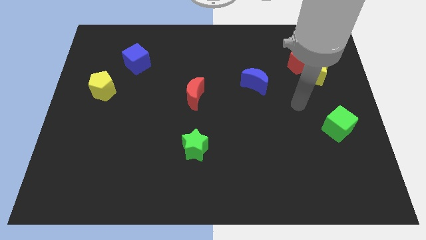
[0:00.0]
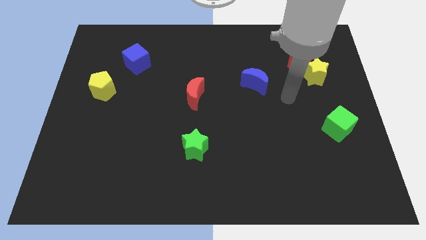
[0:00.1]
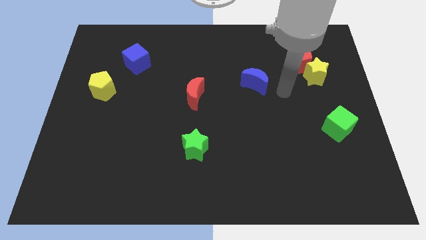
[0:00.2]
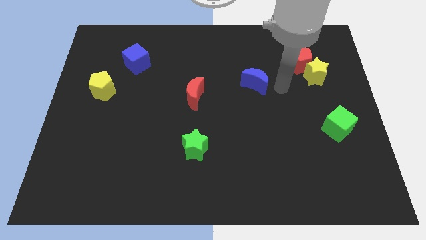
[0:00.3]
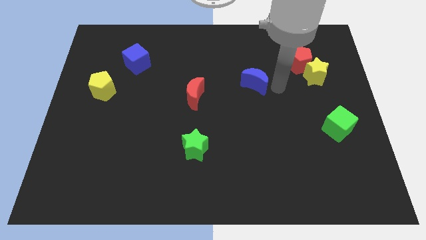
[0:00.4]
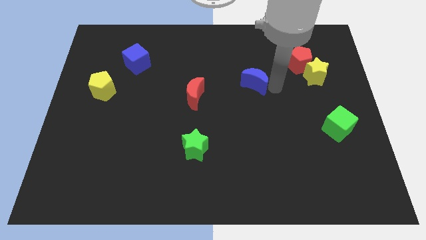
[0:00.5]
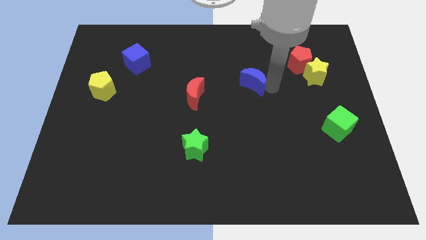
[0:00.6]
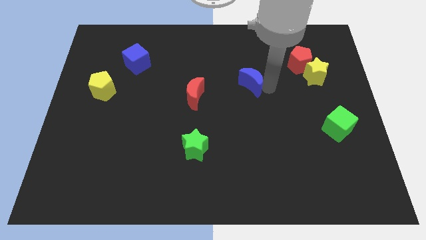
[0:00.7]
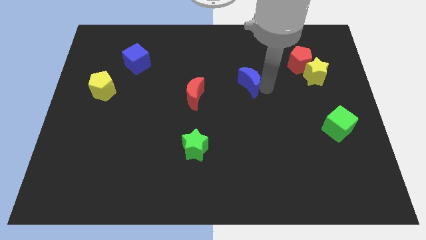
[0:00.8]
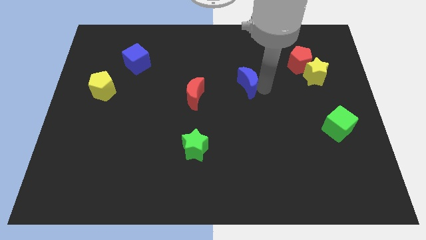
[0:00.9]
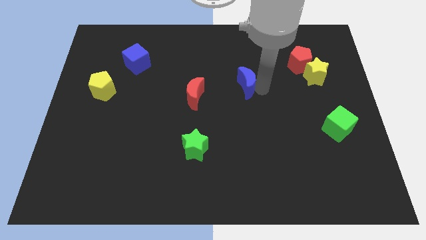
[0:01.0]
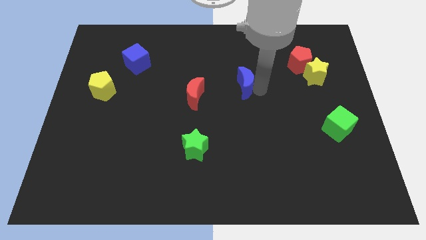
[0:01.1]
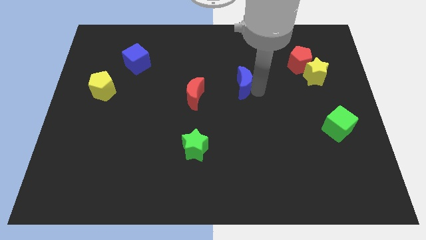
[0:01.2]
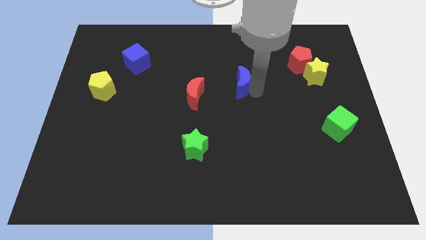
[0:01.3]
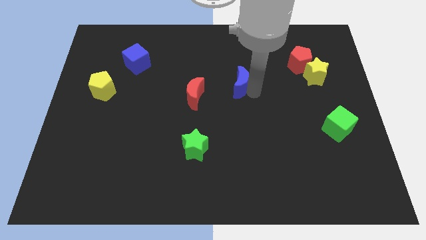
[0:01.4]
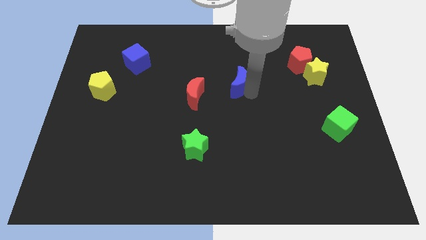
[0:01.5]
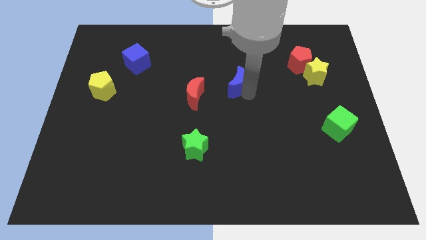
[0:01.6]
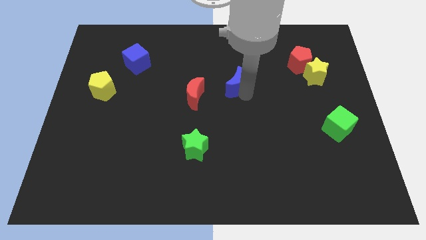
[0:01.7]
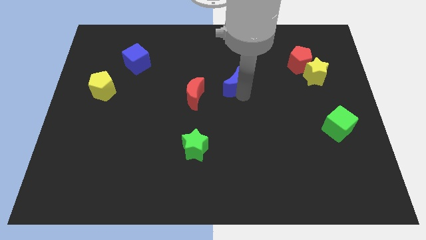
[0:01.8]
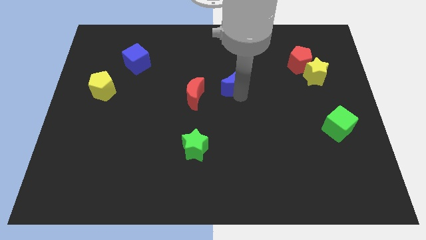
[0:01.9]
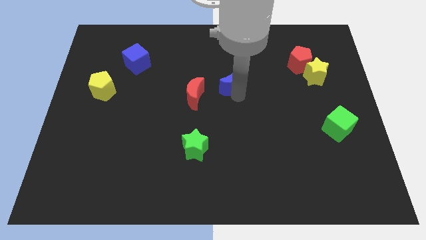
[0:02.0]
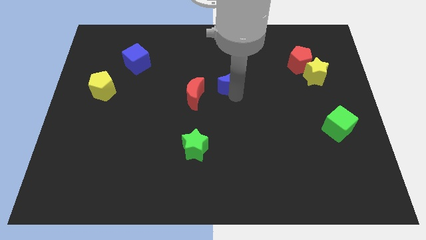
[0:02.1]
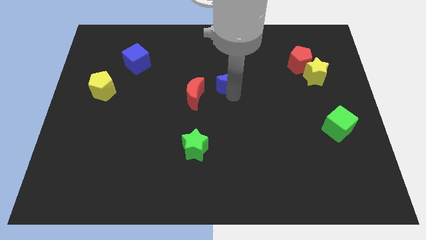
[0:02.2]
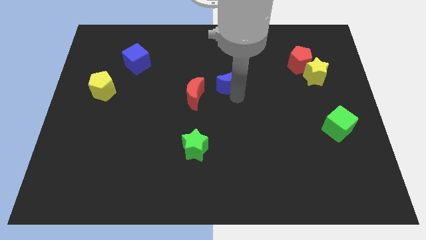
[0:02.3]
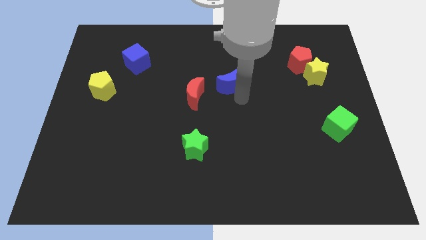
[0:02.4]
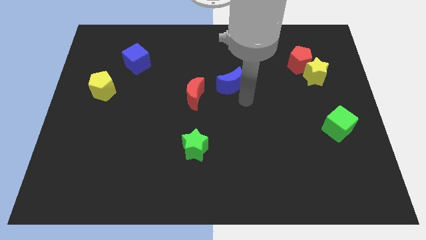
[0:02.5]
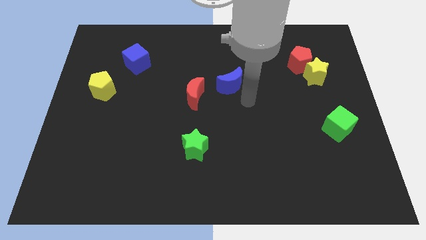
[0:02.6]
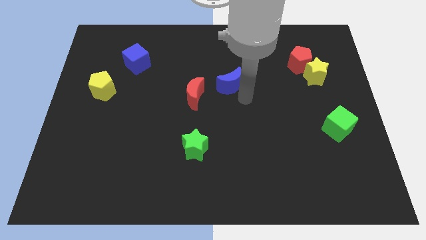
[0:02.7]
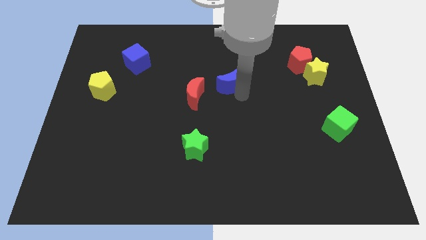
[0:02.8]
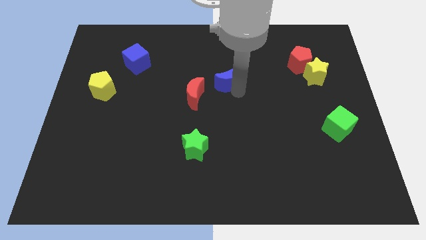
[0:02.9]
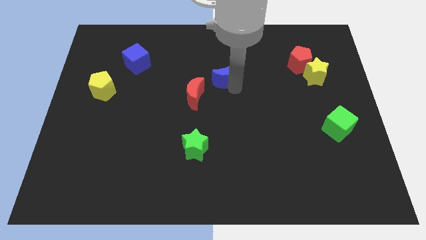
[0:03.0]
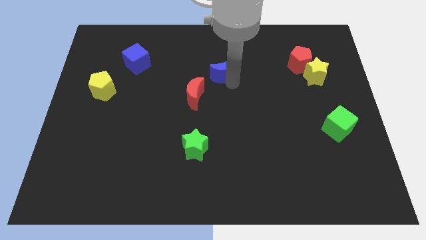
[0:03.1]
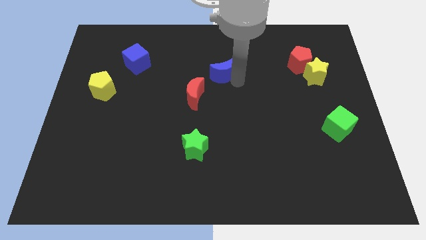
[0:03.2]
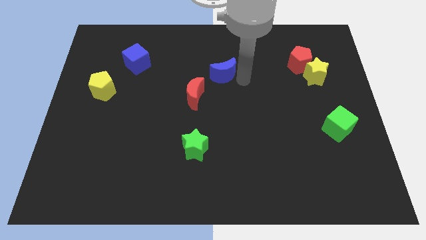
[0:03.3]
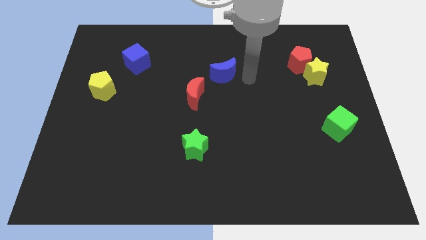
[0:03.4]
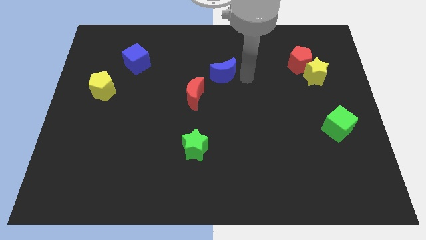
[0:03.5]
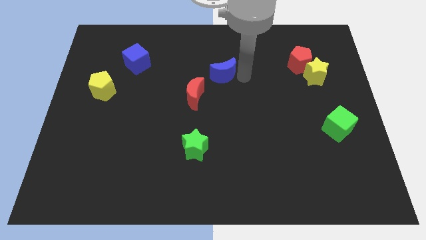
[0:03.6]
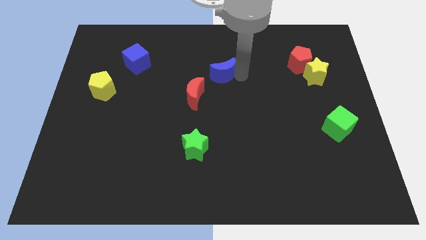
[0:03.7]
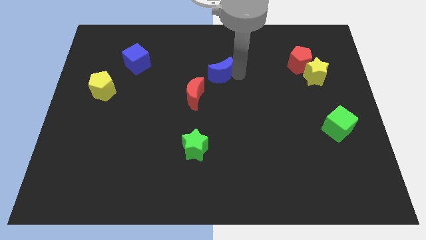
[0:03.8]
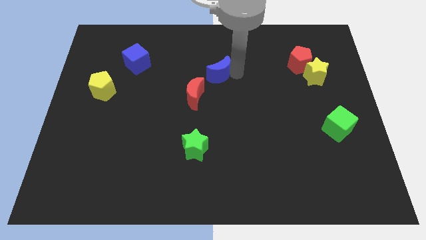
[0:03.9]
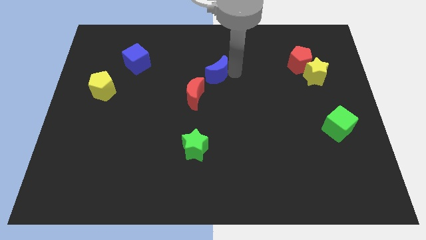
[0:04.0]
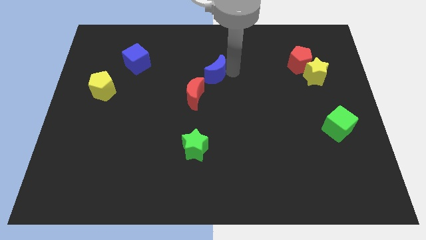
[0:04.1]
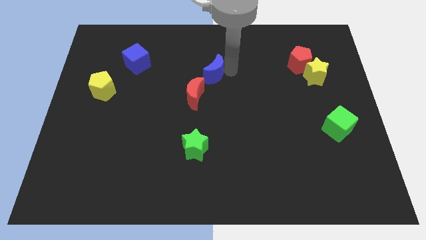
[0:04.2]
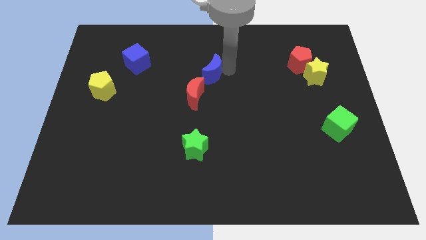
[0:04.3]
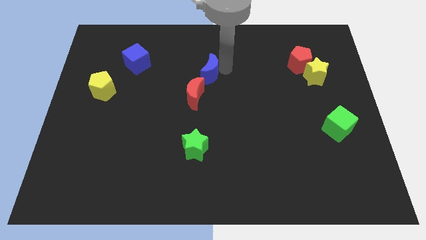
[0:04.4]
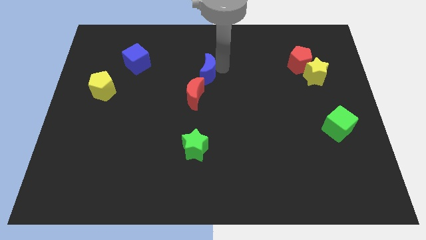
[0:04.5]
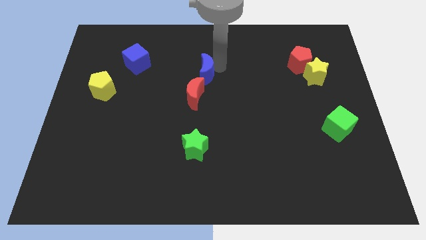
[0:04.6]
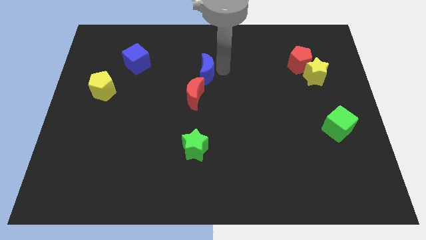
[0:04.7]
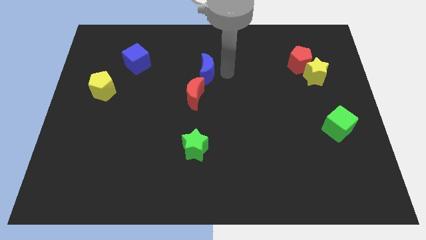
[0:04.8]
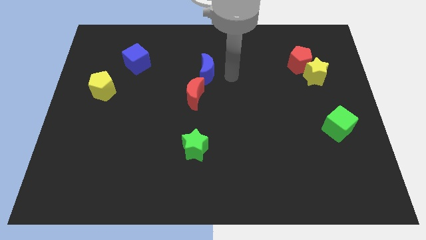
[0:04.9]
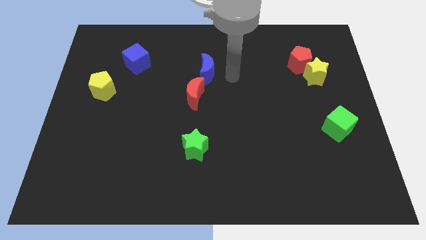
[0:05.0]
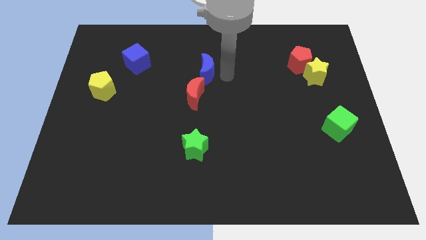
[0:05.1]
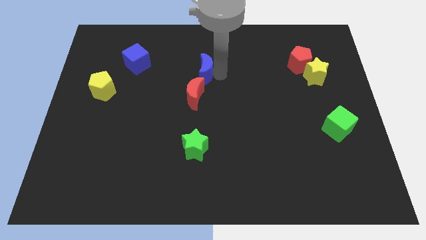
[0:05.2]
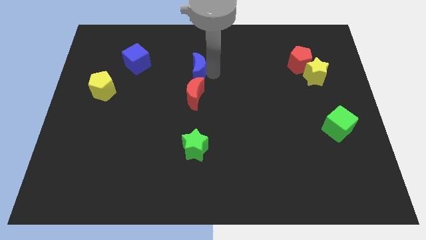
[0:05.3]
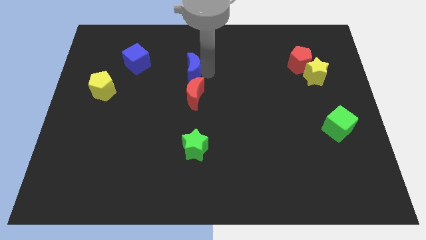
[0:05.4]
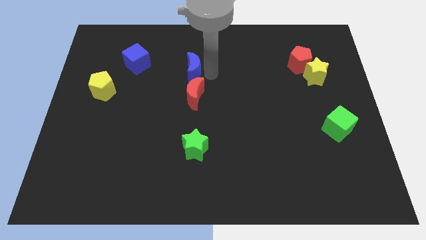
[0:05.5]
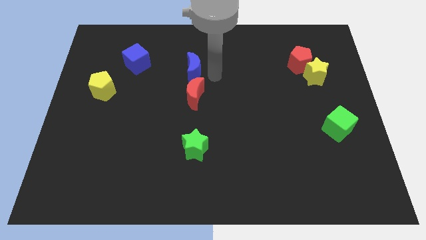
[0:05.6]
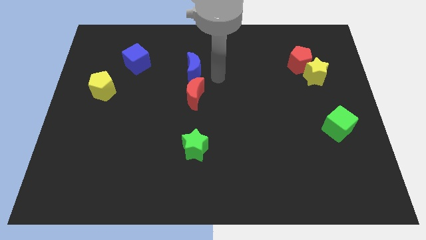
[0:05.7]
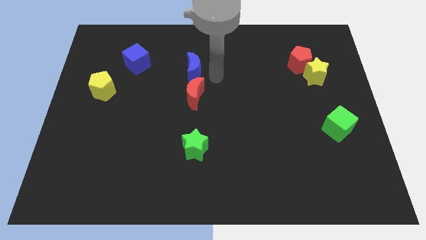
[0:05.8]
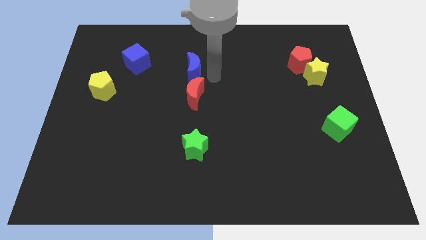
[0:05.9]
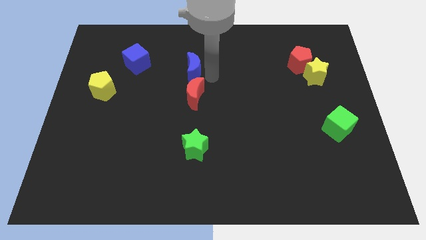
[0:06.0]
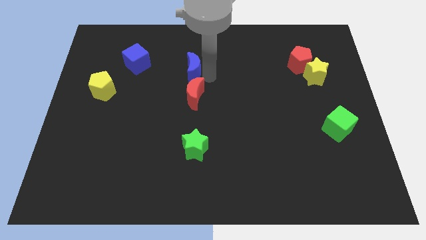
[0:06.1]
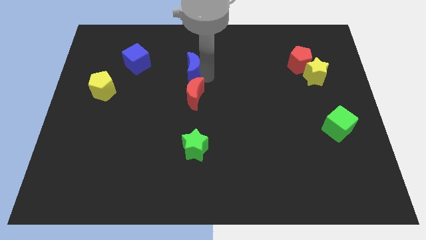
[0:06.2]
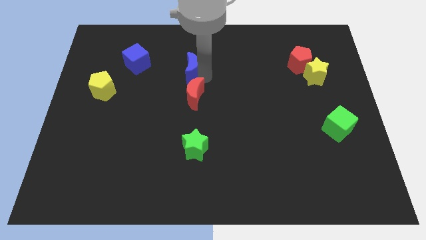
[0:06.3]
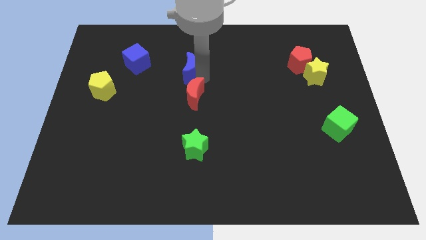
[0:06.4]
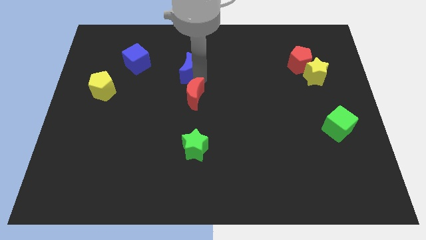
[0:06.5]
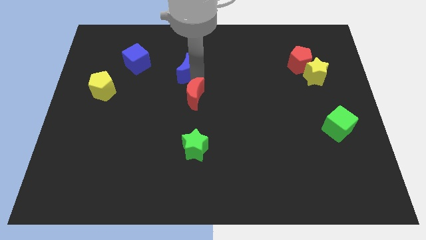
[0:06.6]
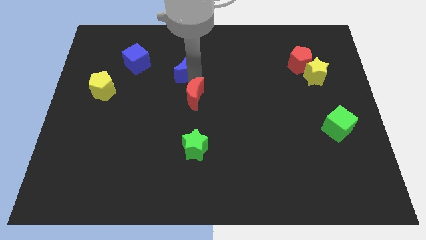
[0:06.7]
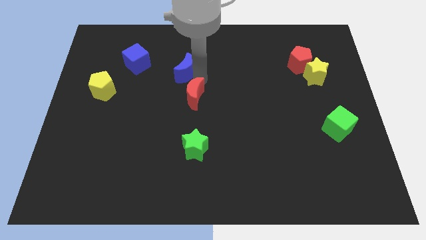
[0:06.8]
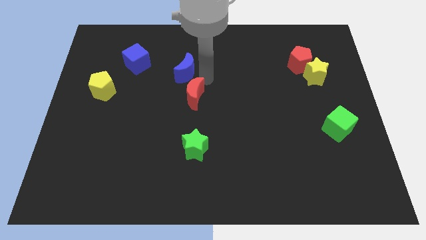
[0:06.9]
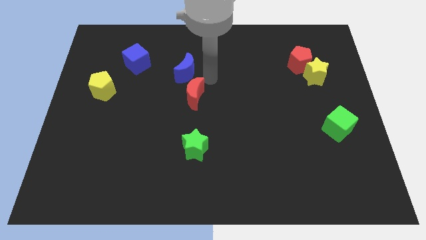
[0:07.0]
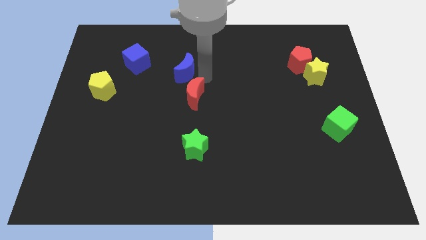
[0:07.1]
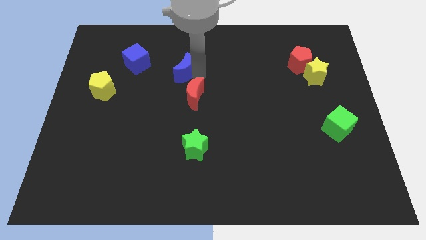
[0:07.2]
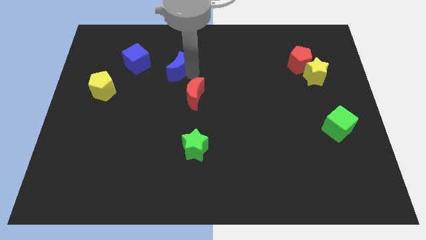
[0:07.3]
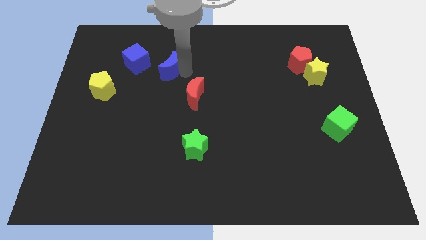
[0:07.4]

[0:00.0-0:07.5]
slide the blue moon to the left

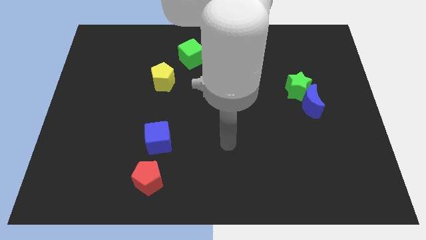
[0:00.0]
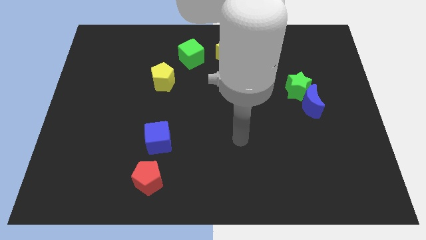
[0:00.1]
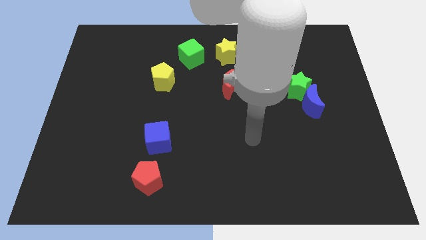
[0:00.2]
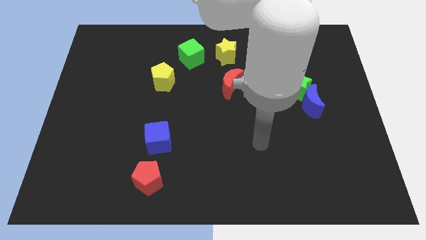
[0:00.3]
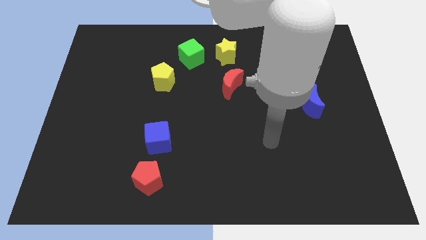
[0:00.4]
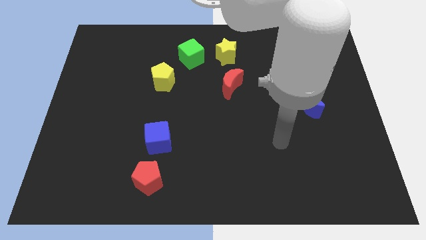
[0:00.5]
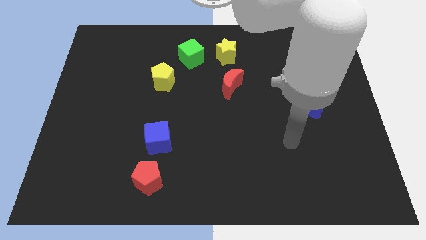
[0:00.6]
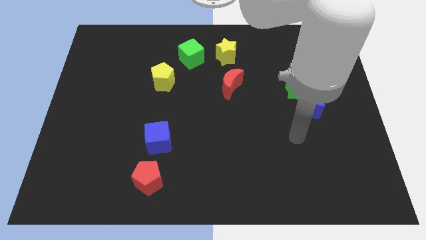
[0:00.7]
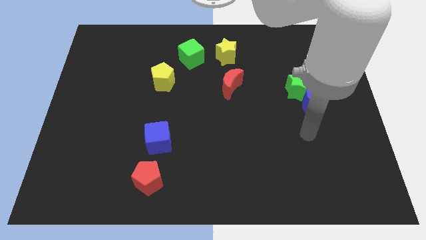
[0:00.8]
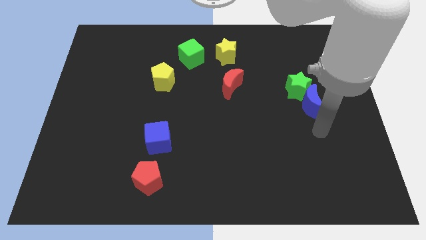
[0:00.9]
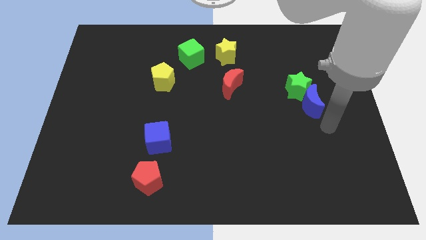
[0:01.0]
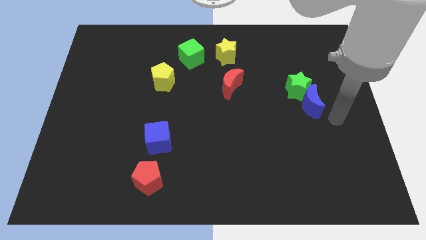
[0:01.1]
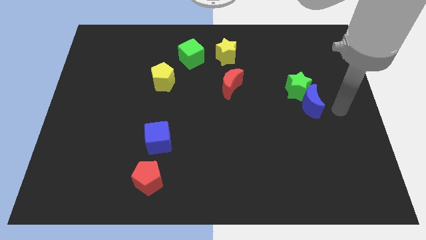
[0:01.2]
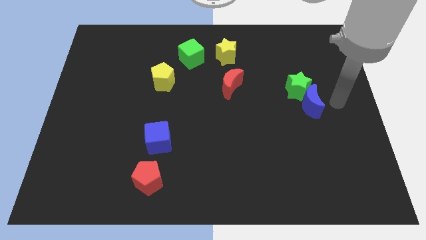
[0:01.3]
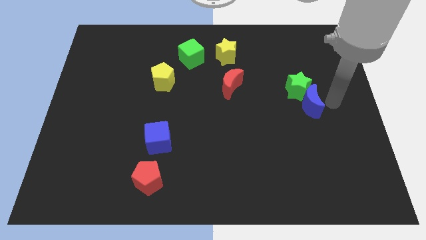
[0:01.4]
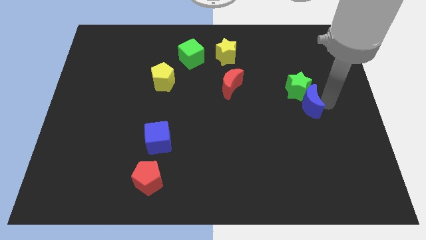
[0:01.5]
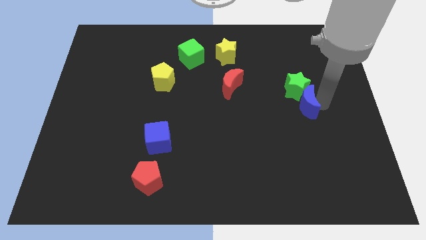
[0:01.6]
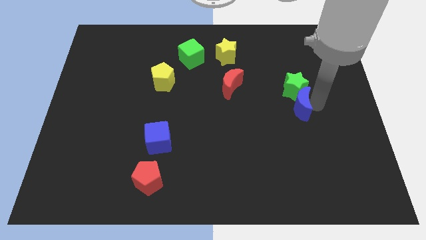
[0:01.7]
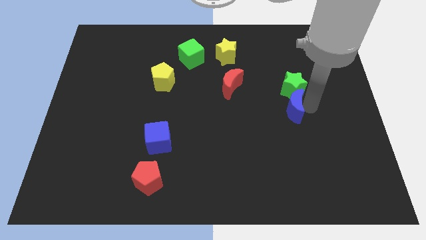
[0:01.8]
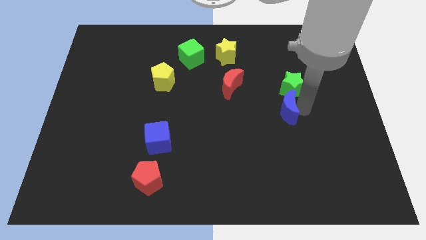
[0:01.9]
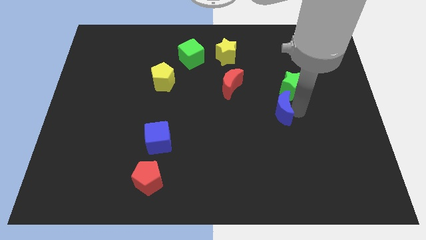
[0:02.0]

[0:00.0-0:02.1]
slide the blue moon to the left a little bit
